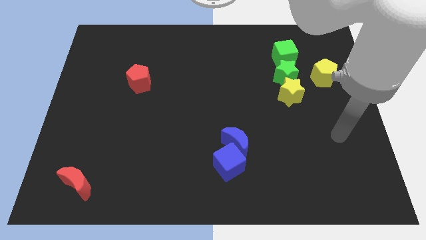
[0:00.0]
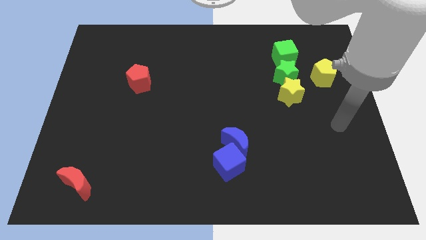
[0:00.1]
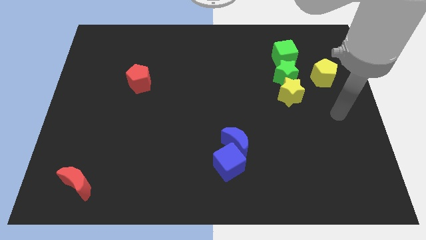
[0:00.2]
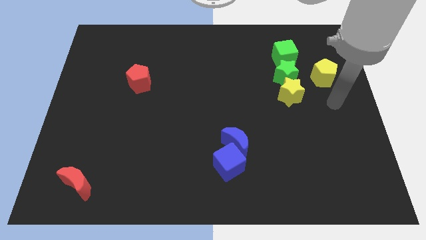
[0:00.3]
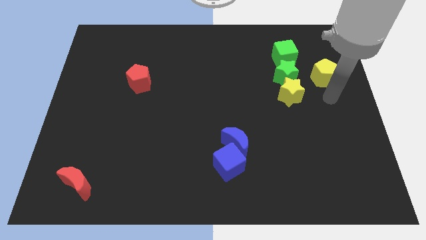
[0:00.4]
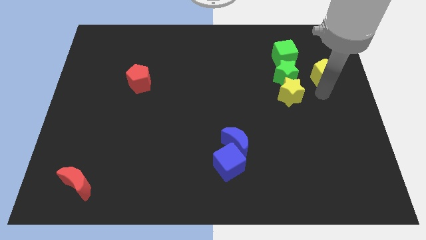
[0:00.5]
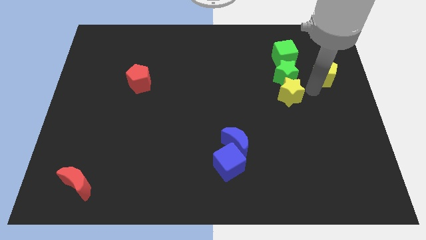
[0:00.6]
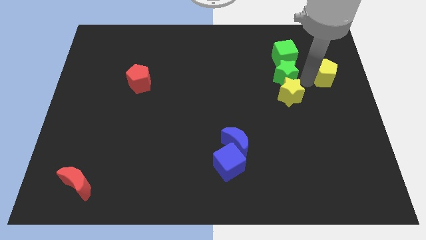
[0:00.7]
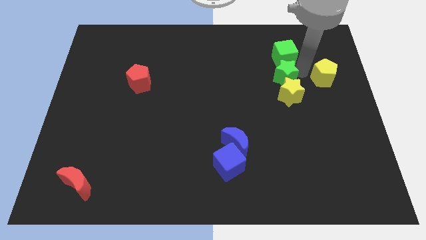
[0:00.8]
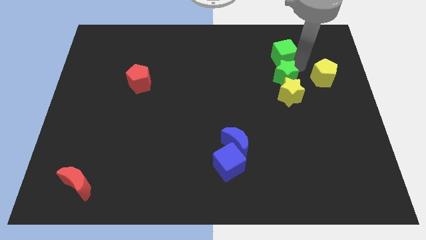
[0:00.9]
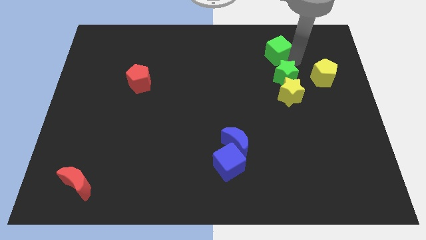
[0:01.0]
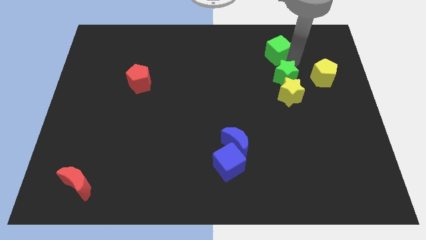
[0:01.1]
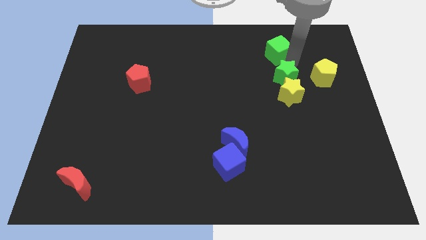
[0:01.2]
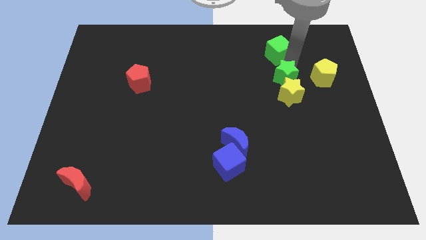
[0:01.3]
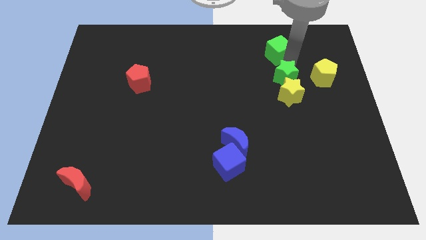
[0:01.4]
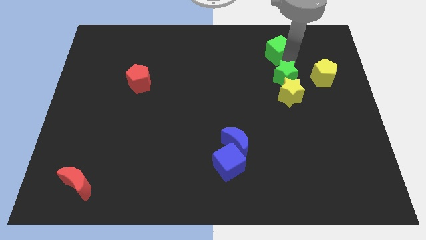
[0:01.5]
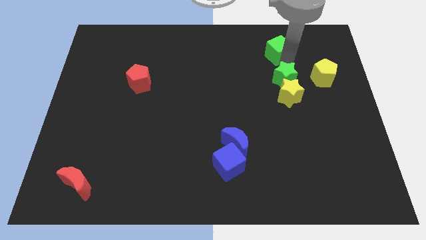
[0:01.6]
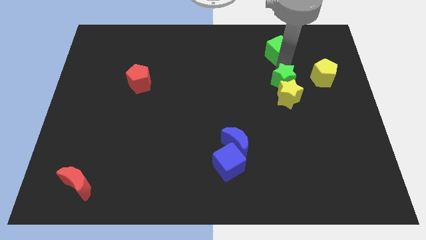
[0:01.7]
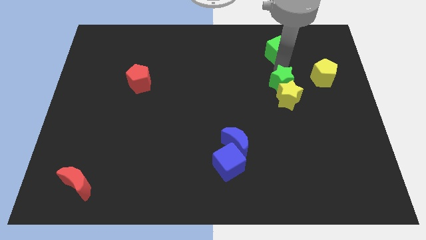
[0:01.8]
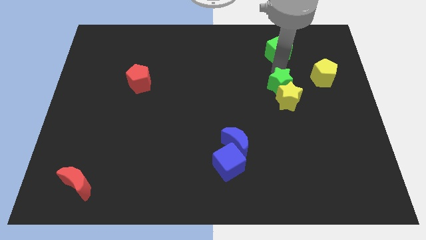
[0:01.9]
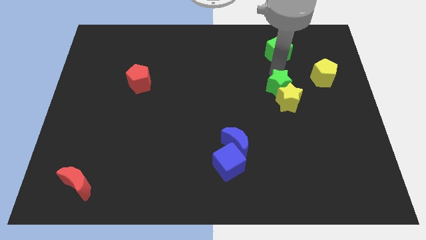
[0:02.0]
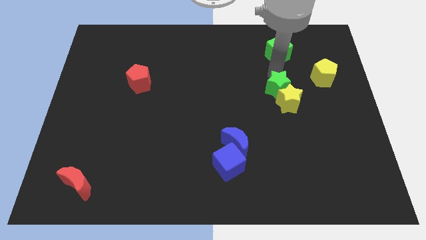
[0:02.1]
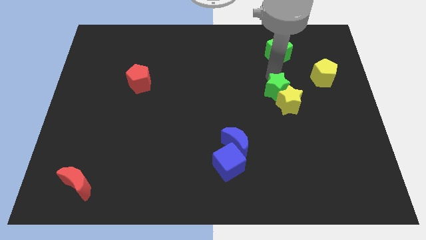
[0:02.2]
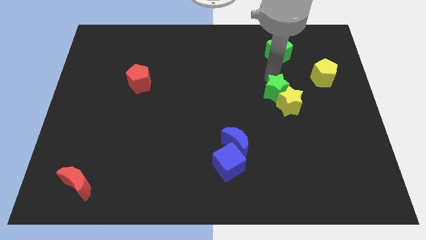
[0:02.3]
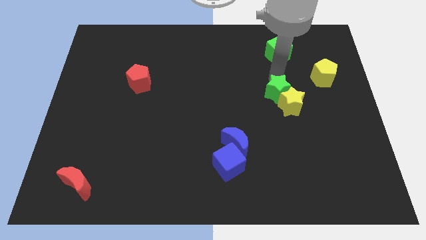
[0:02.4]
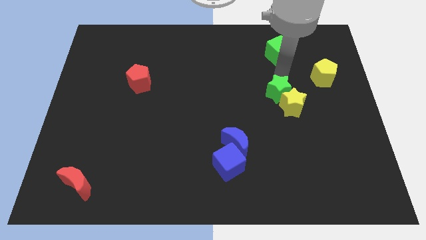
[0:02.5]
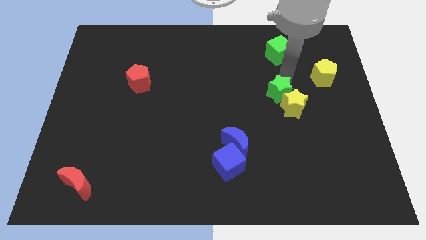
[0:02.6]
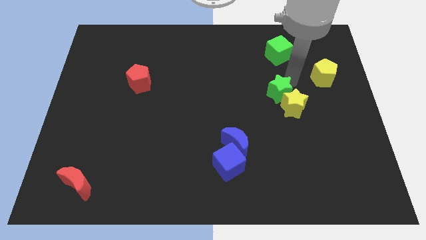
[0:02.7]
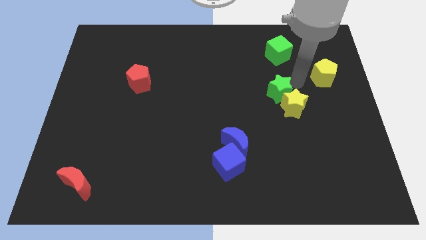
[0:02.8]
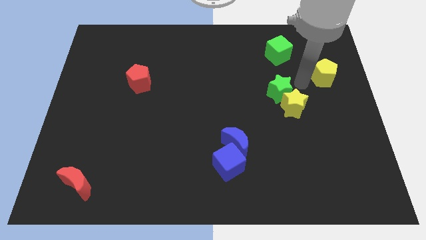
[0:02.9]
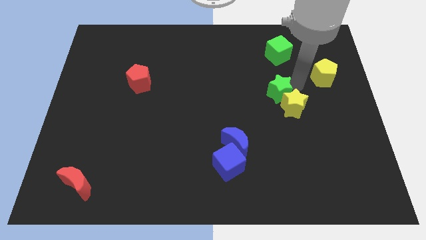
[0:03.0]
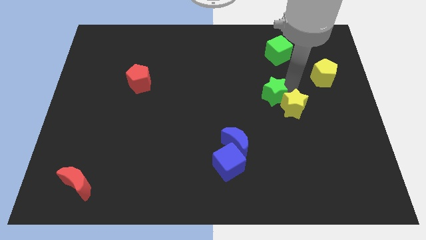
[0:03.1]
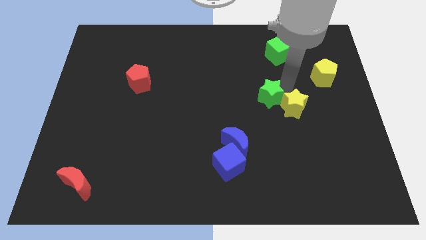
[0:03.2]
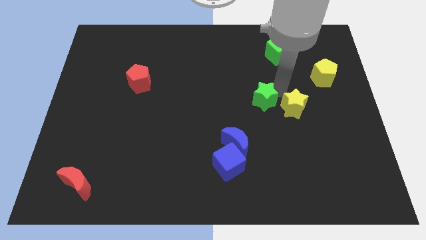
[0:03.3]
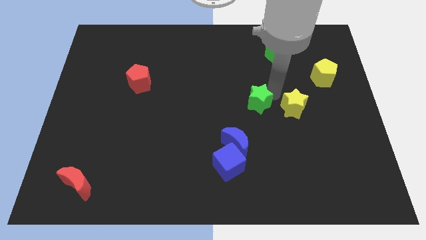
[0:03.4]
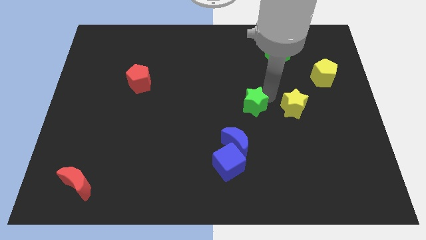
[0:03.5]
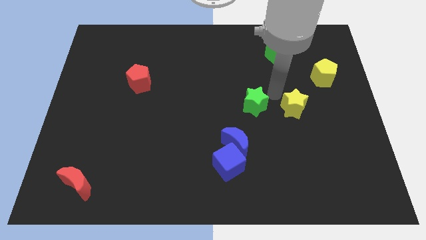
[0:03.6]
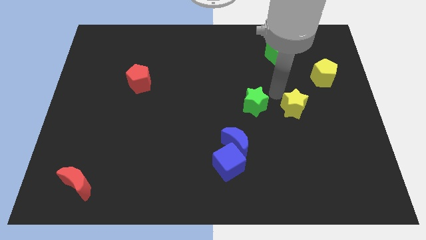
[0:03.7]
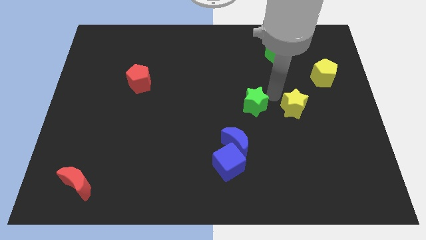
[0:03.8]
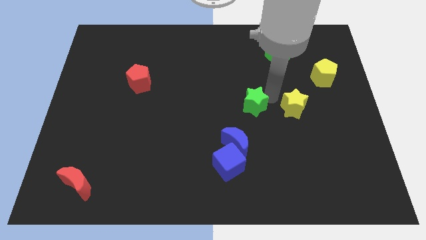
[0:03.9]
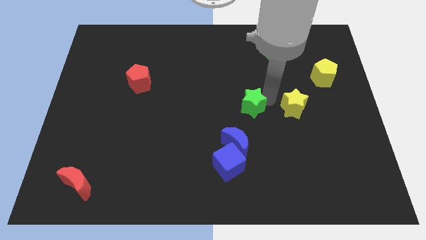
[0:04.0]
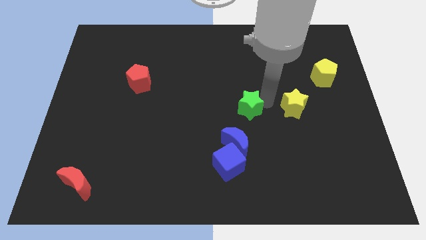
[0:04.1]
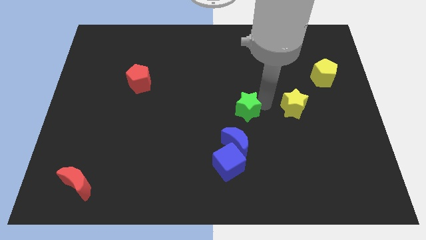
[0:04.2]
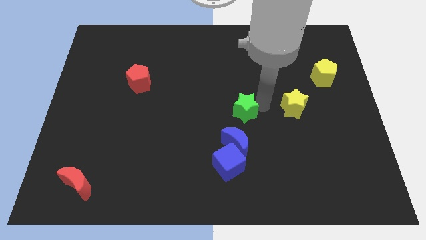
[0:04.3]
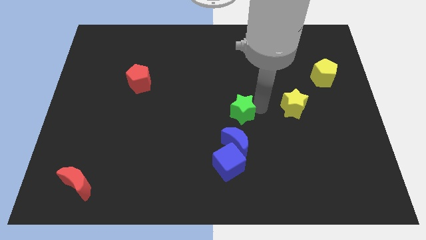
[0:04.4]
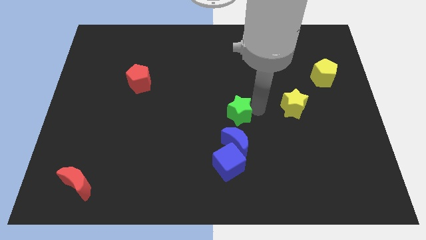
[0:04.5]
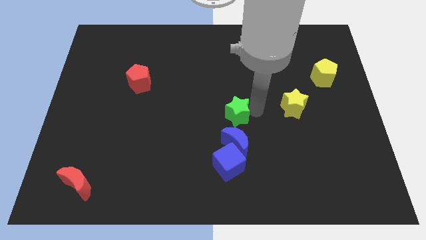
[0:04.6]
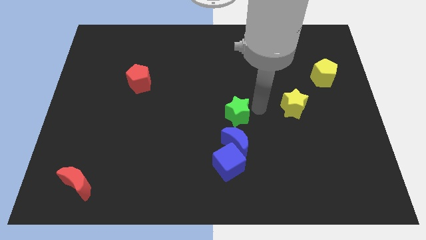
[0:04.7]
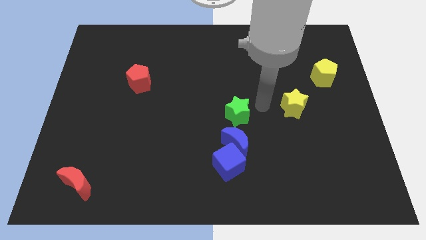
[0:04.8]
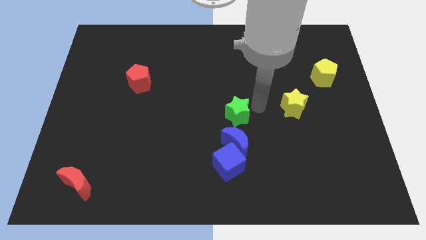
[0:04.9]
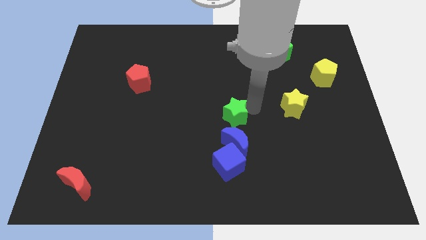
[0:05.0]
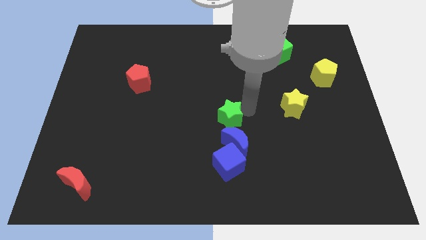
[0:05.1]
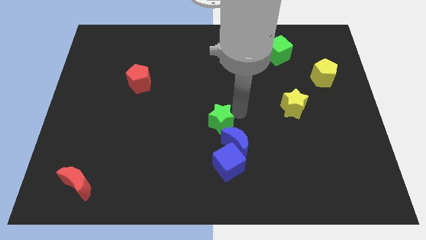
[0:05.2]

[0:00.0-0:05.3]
slide the green star diagonally down and to the left

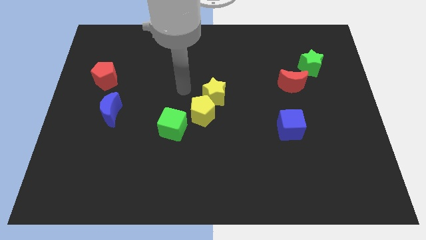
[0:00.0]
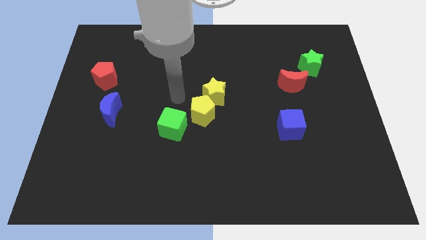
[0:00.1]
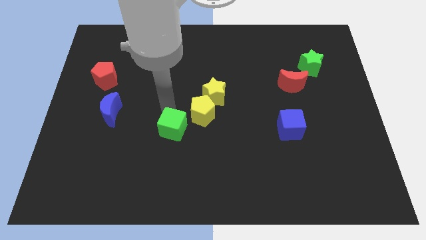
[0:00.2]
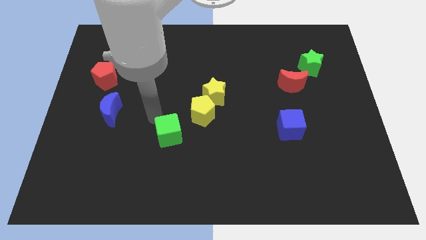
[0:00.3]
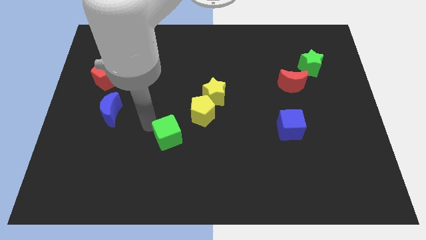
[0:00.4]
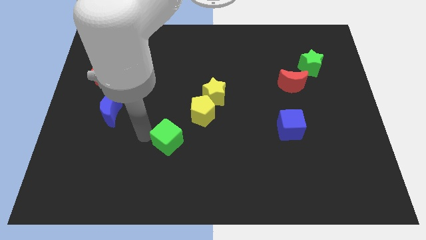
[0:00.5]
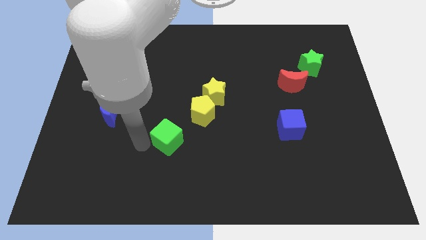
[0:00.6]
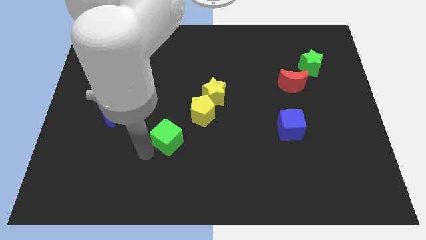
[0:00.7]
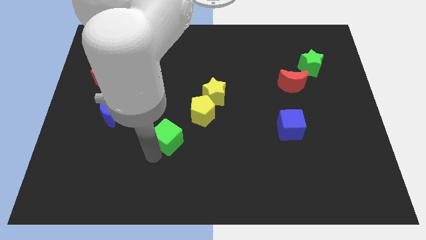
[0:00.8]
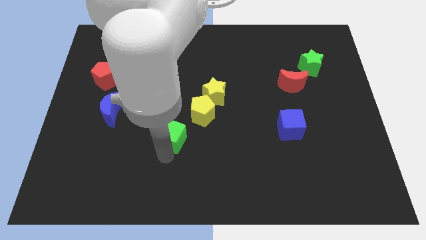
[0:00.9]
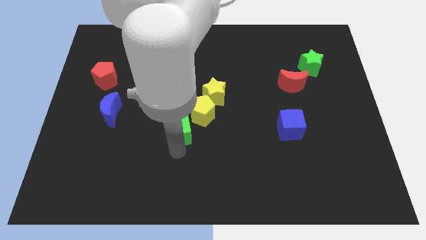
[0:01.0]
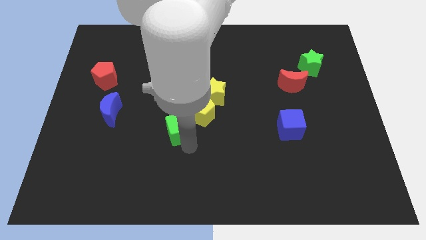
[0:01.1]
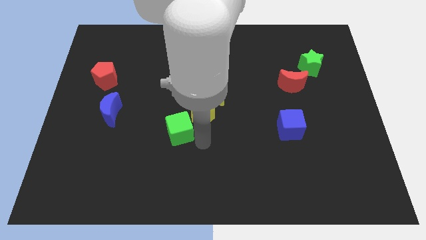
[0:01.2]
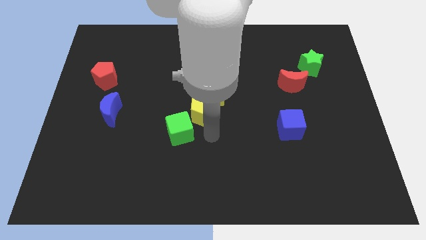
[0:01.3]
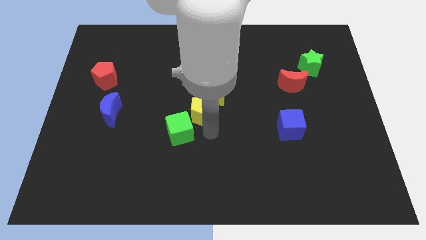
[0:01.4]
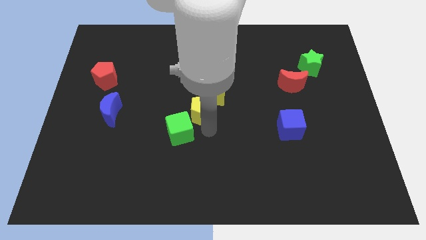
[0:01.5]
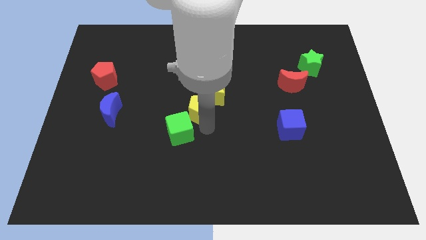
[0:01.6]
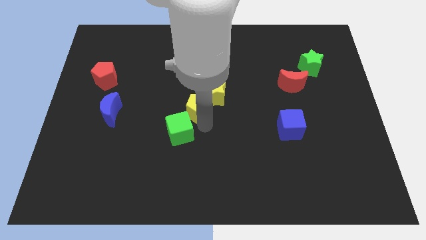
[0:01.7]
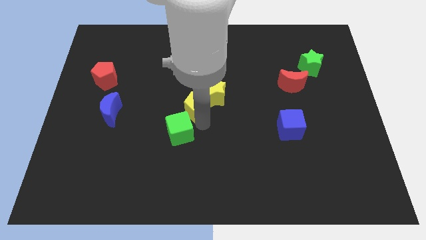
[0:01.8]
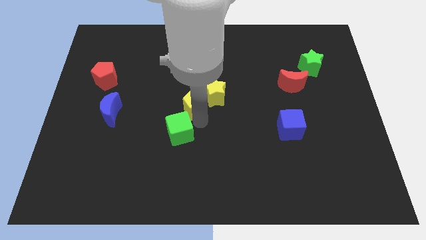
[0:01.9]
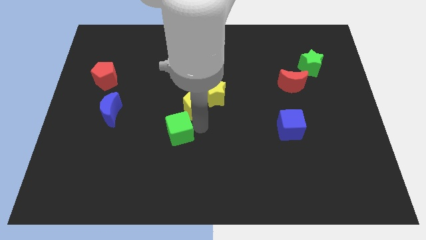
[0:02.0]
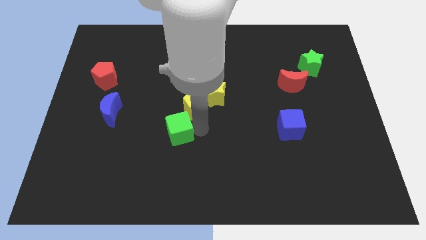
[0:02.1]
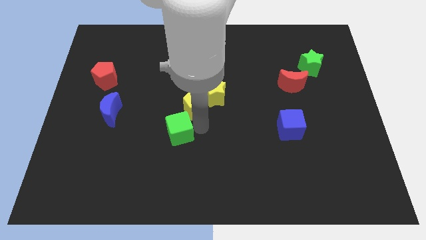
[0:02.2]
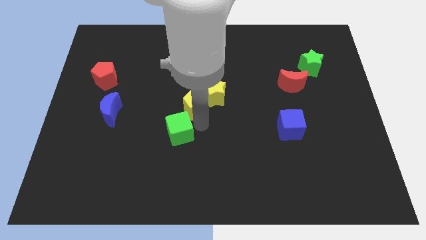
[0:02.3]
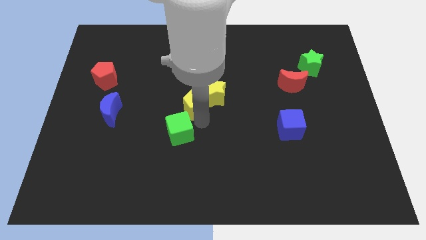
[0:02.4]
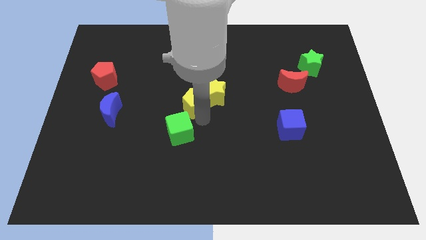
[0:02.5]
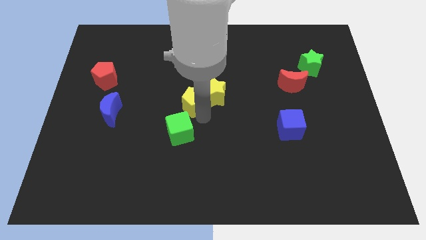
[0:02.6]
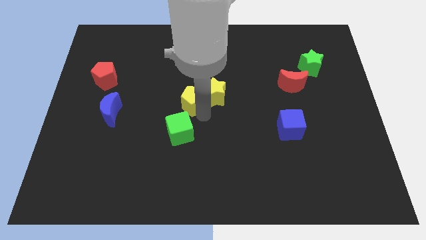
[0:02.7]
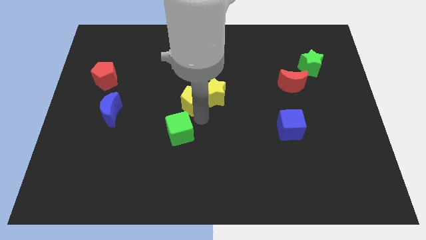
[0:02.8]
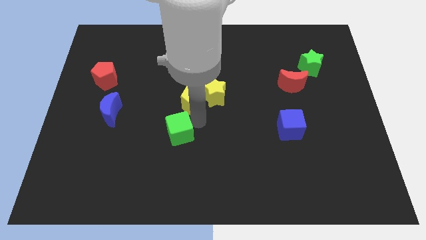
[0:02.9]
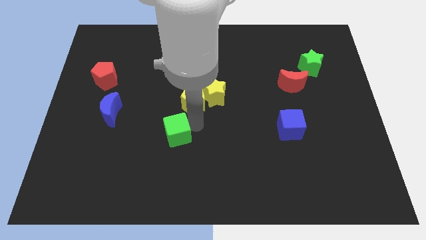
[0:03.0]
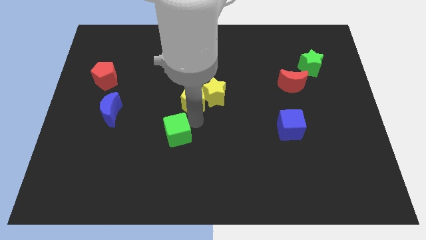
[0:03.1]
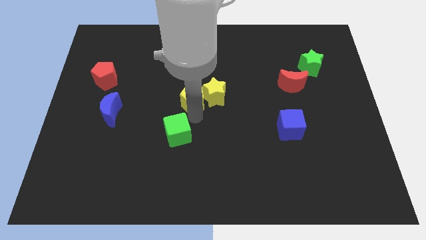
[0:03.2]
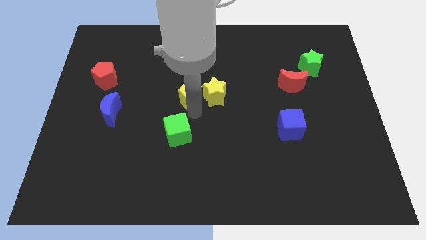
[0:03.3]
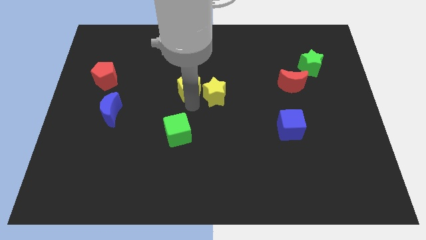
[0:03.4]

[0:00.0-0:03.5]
slightly move the yellow pentagon upwards
